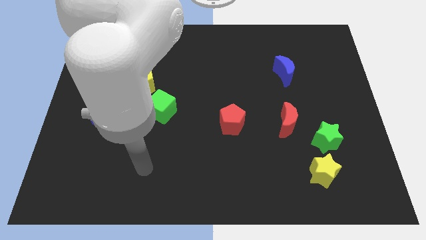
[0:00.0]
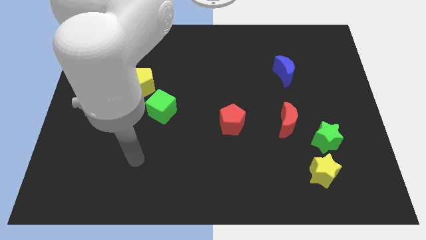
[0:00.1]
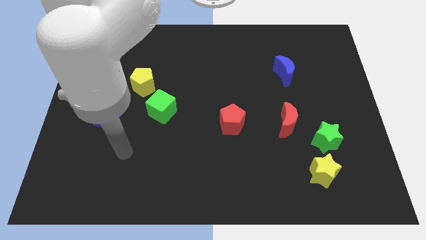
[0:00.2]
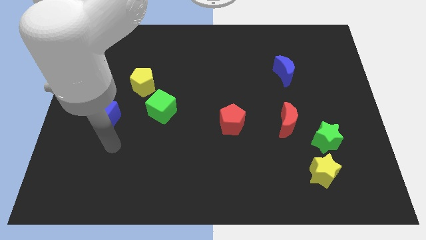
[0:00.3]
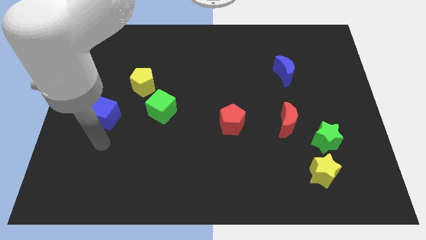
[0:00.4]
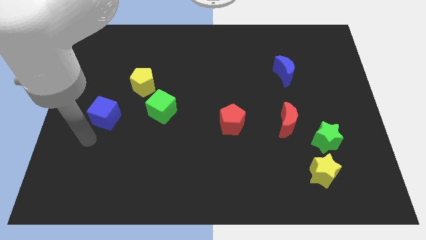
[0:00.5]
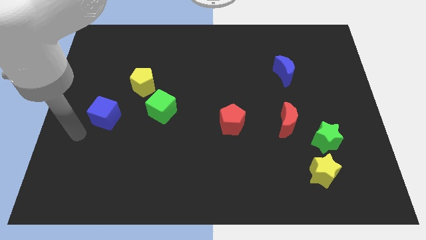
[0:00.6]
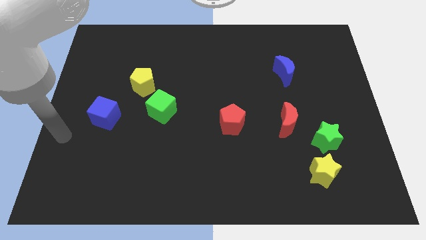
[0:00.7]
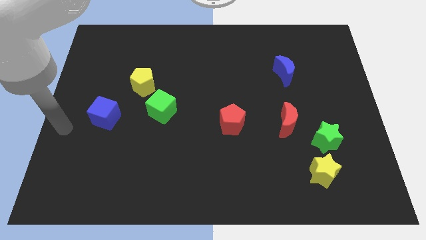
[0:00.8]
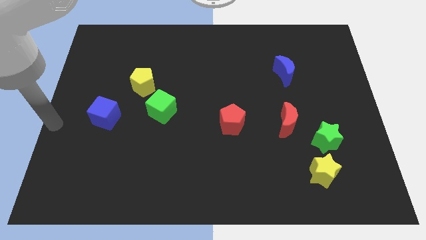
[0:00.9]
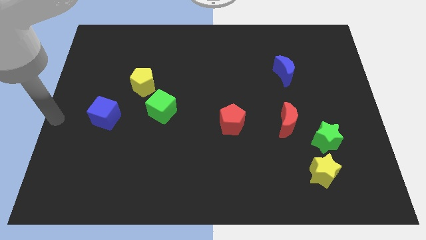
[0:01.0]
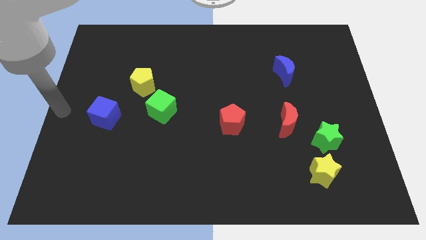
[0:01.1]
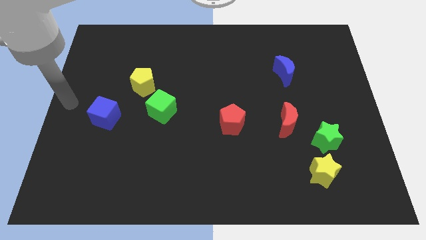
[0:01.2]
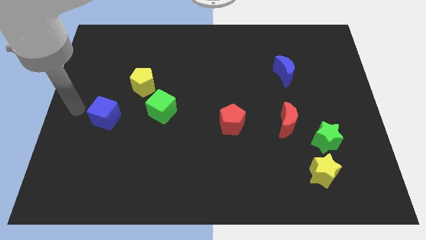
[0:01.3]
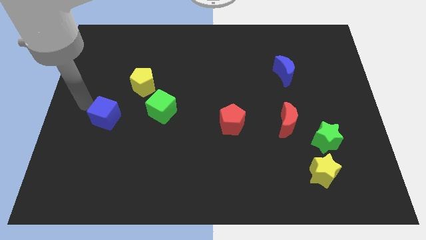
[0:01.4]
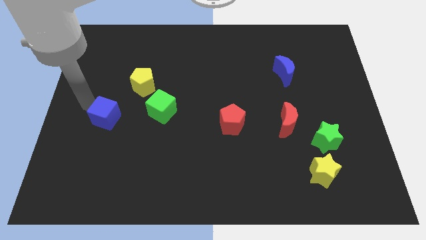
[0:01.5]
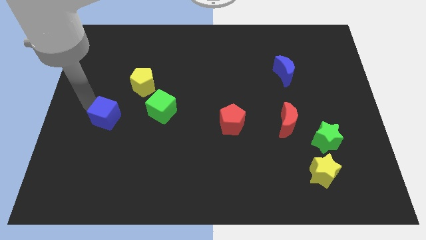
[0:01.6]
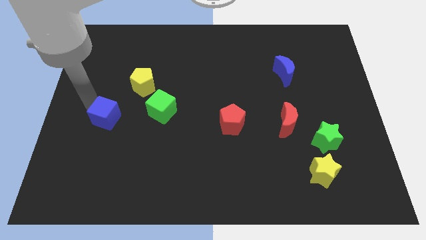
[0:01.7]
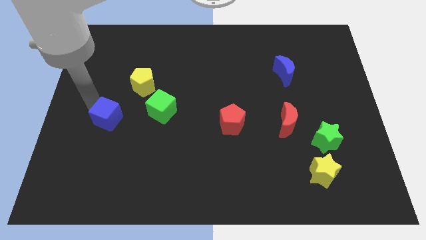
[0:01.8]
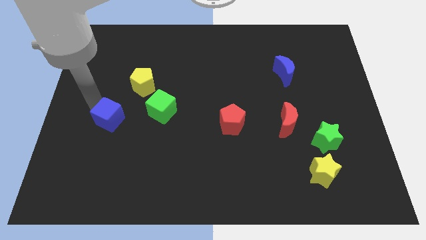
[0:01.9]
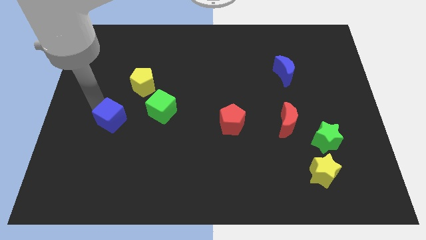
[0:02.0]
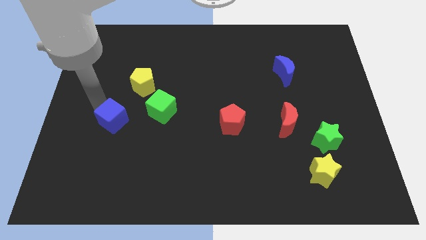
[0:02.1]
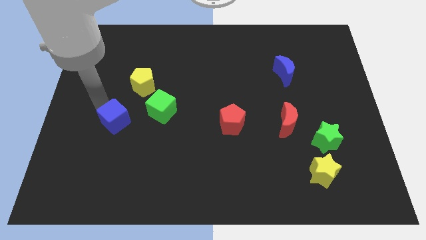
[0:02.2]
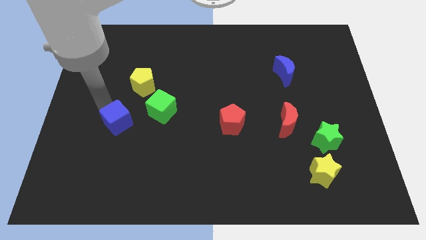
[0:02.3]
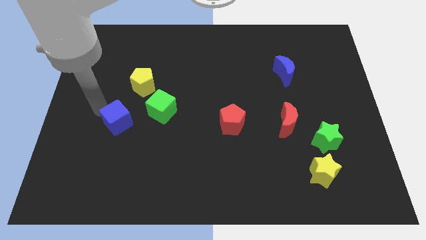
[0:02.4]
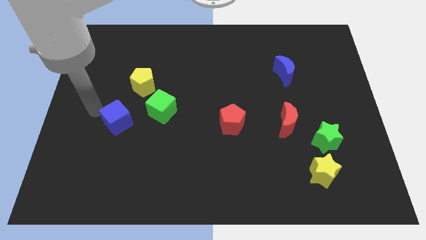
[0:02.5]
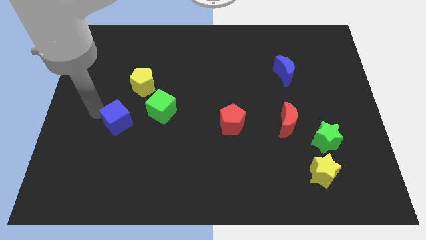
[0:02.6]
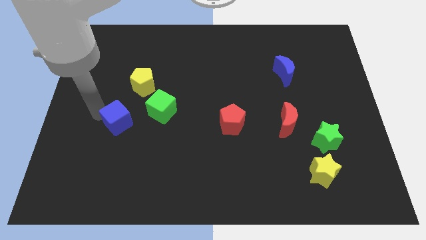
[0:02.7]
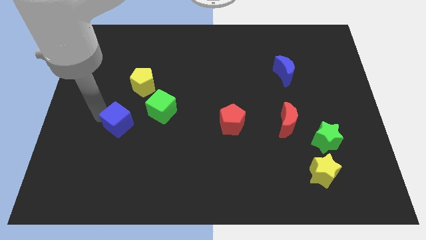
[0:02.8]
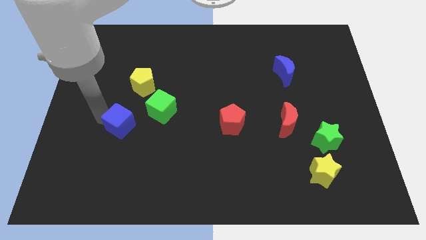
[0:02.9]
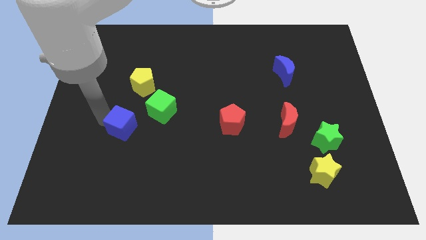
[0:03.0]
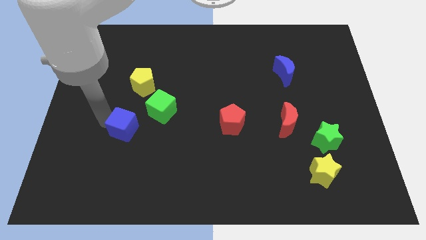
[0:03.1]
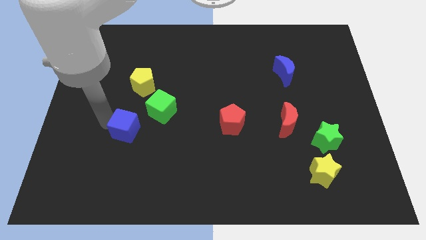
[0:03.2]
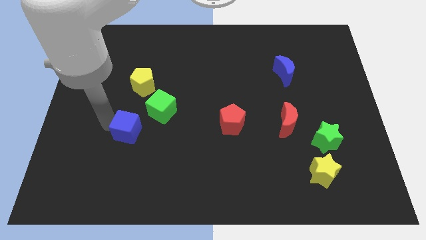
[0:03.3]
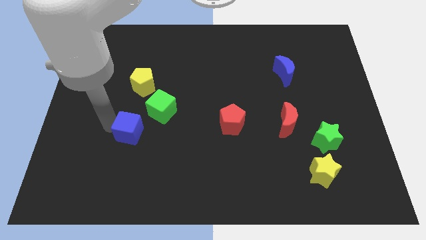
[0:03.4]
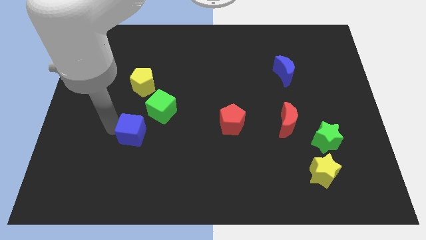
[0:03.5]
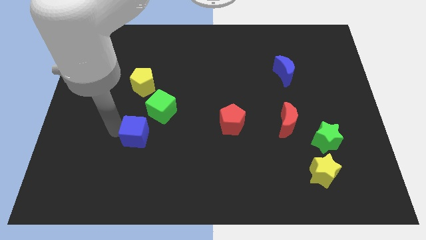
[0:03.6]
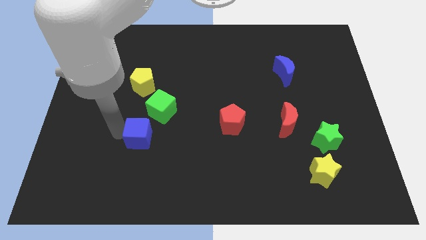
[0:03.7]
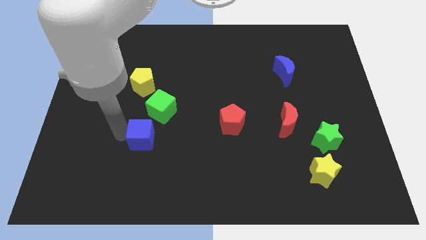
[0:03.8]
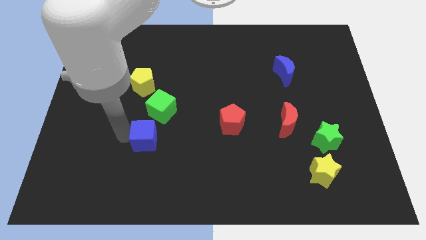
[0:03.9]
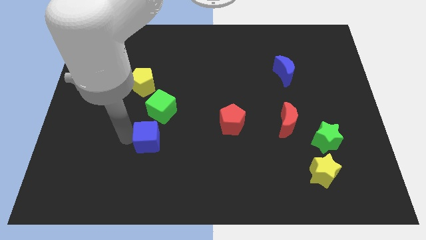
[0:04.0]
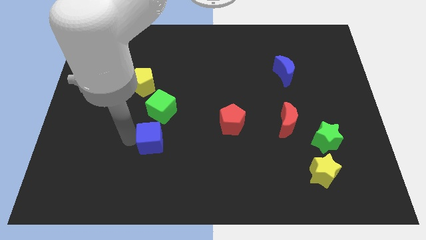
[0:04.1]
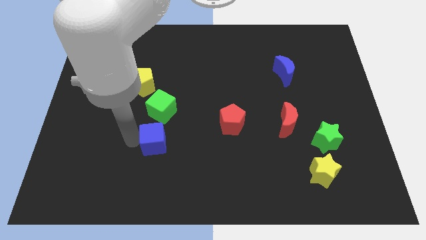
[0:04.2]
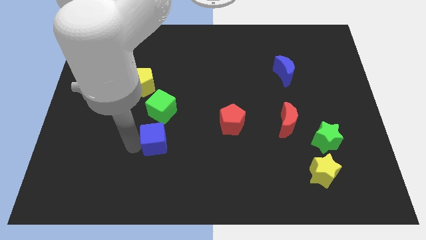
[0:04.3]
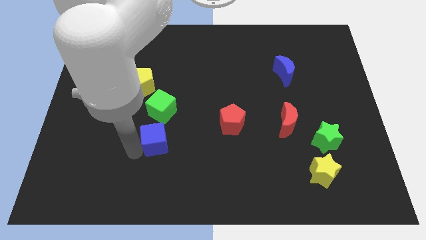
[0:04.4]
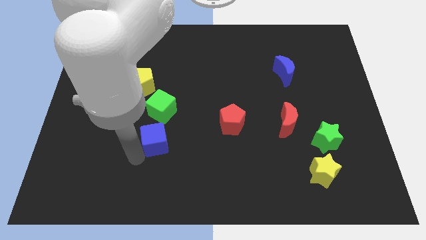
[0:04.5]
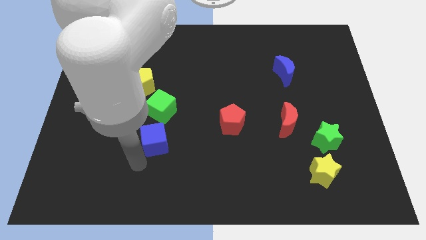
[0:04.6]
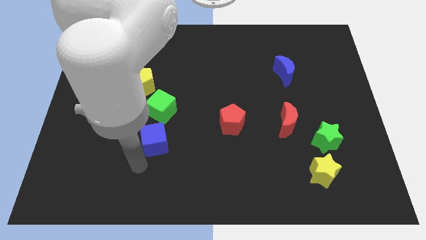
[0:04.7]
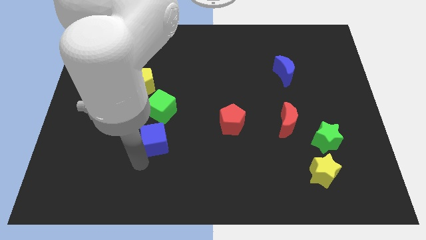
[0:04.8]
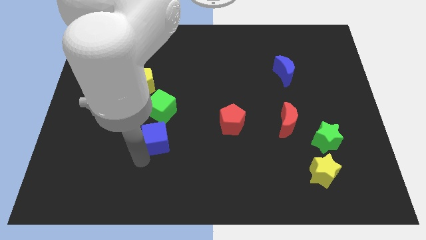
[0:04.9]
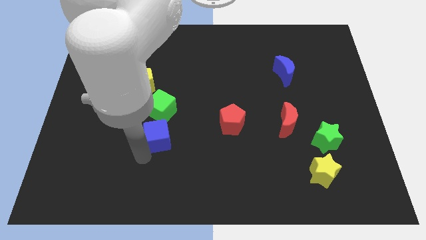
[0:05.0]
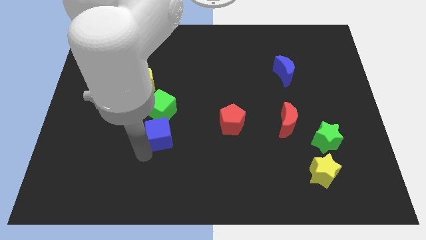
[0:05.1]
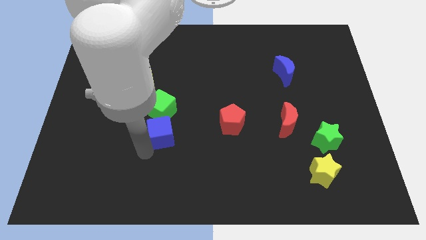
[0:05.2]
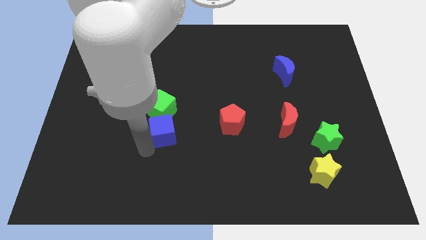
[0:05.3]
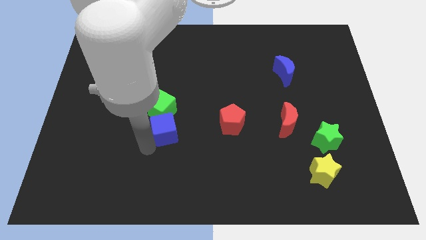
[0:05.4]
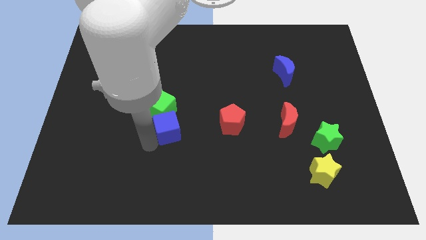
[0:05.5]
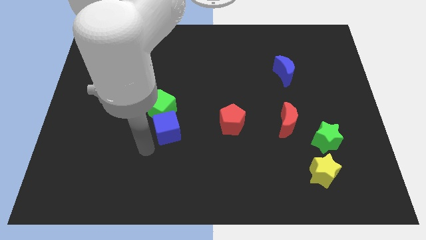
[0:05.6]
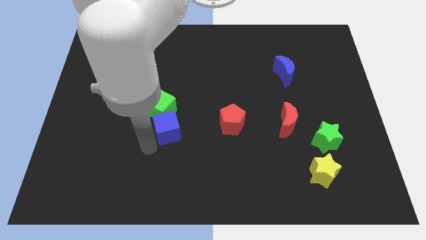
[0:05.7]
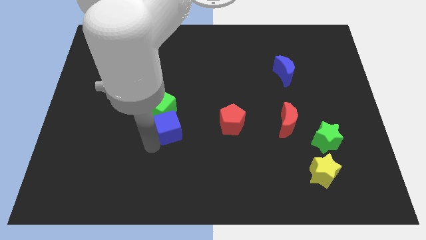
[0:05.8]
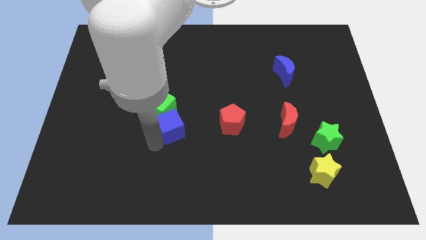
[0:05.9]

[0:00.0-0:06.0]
push the blue cube to the middle

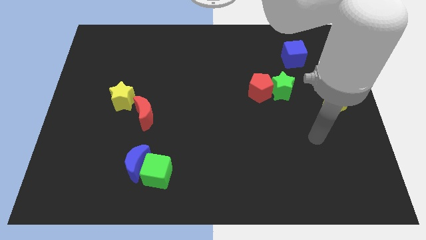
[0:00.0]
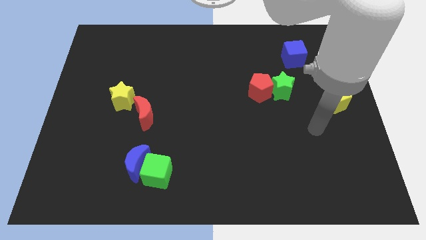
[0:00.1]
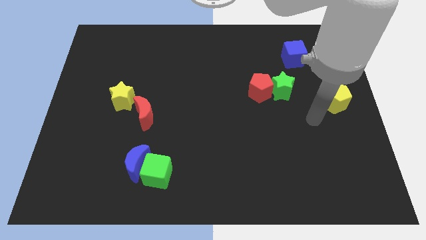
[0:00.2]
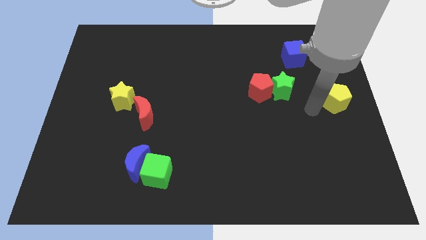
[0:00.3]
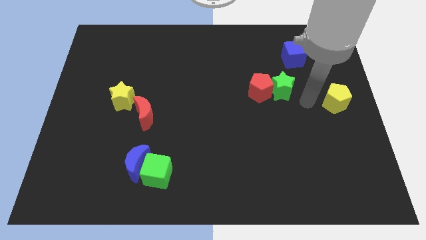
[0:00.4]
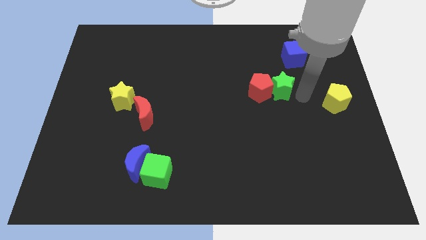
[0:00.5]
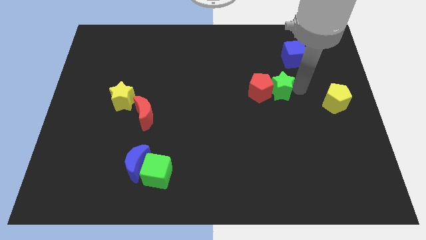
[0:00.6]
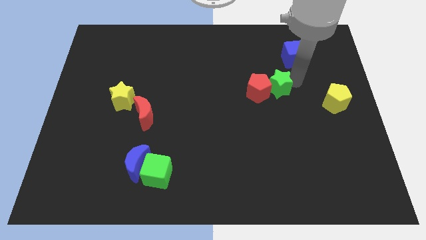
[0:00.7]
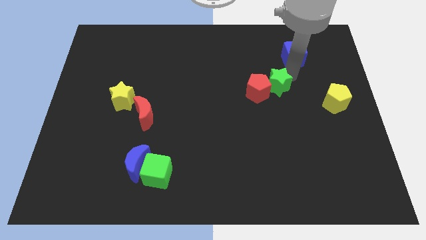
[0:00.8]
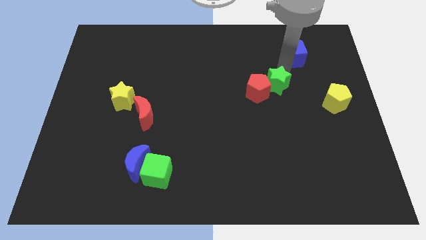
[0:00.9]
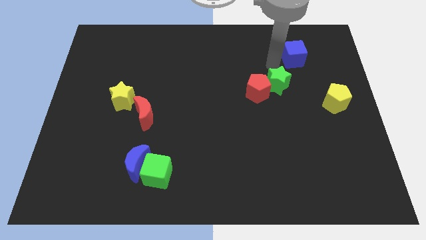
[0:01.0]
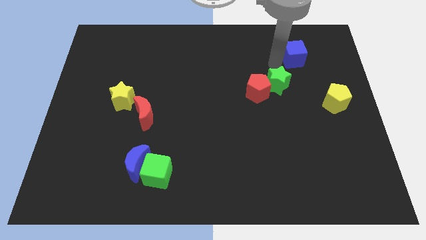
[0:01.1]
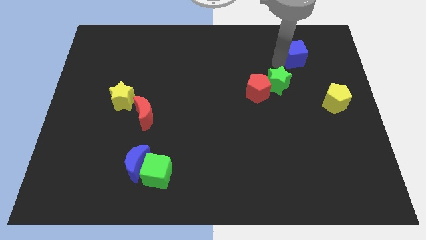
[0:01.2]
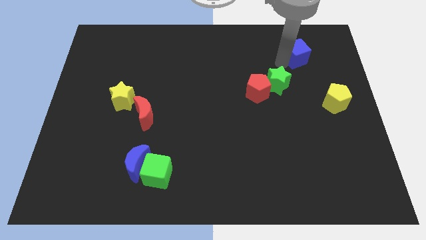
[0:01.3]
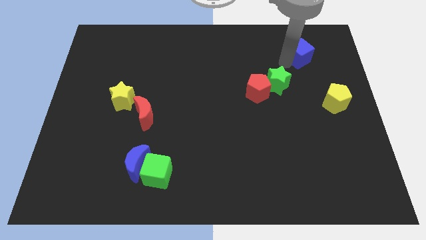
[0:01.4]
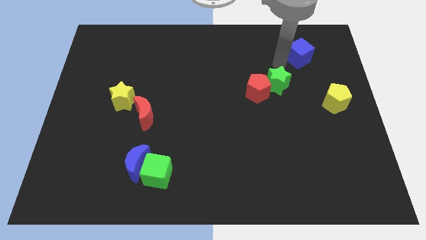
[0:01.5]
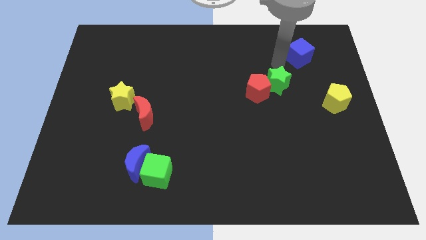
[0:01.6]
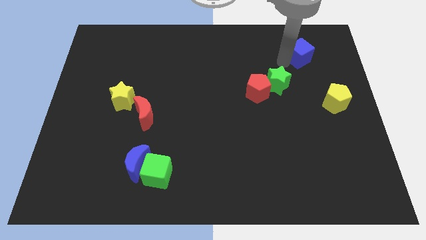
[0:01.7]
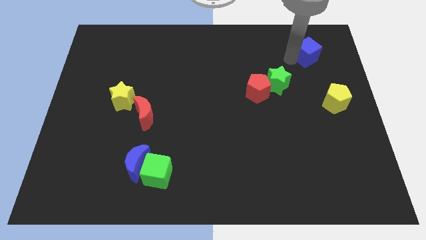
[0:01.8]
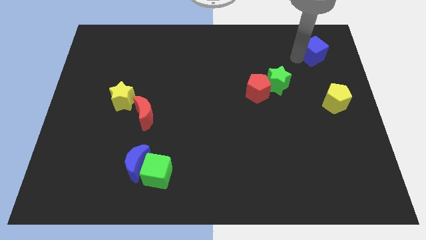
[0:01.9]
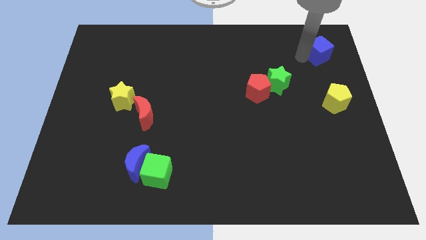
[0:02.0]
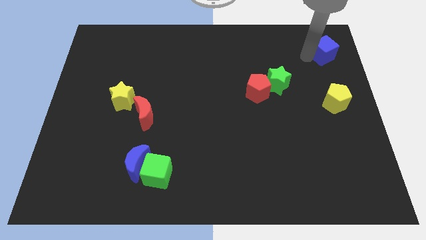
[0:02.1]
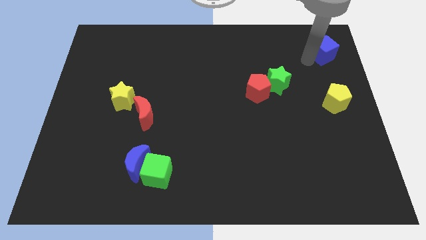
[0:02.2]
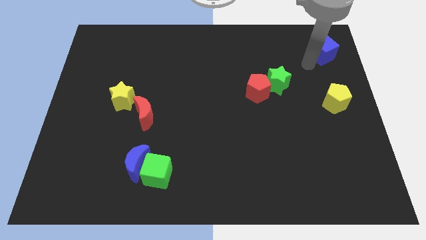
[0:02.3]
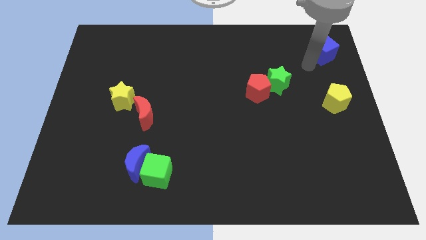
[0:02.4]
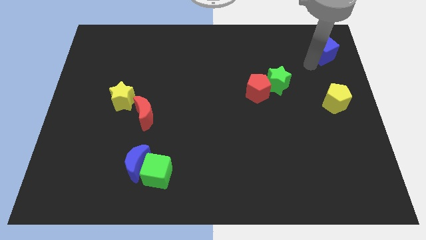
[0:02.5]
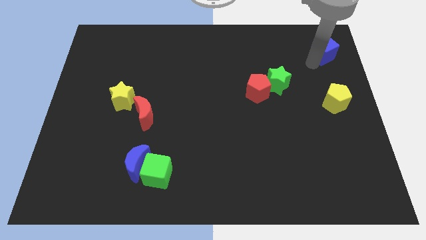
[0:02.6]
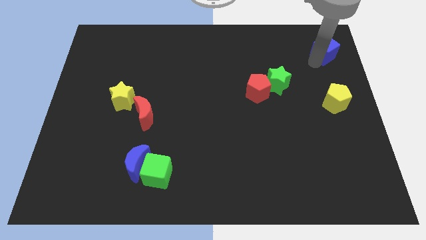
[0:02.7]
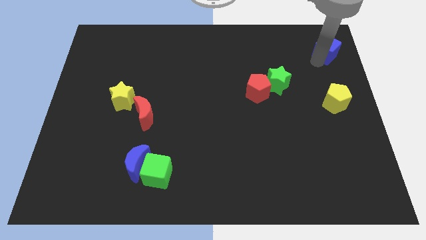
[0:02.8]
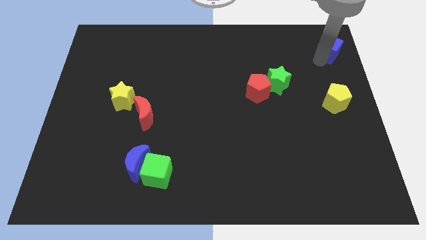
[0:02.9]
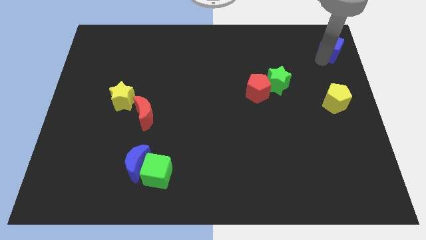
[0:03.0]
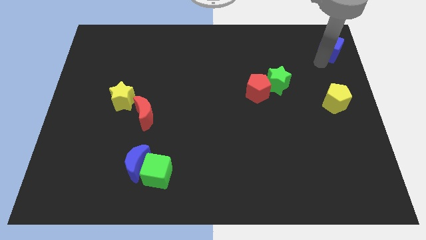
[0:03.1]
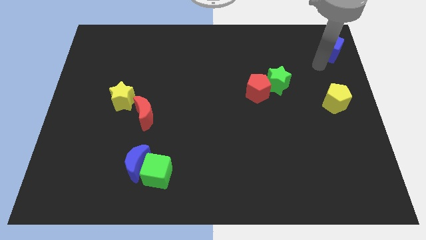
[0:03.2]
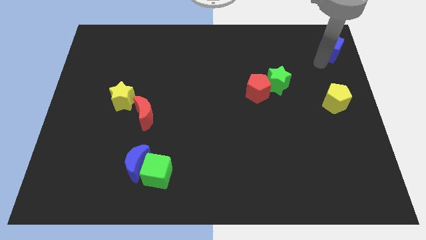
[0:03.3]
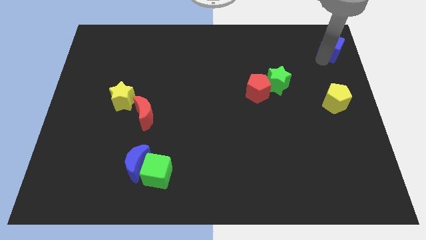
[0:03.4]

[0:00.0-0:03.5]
move the blue cube to the top right
